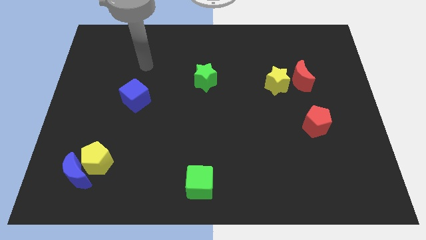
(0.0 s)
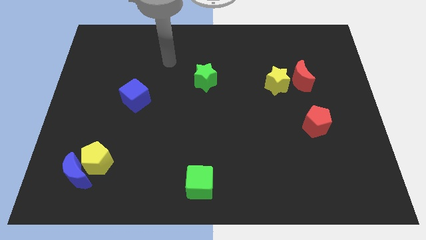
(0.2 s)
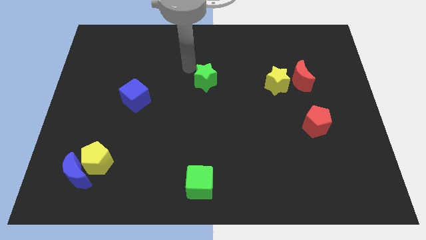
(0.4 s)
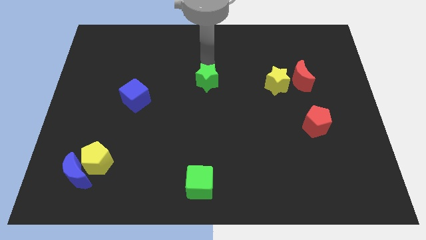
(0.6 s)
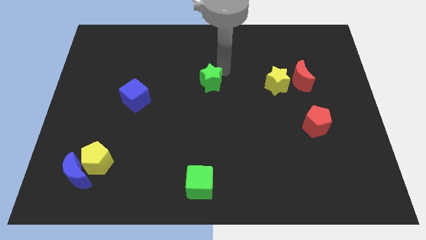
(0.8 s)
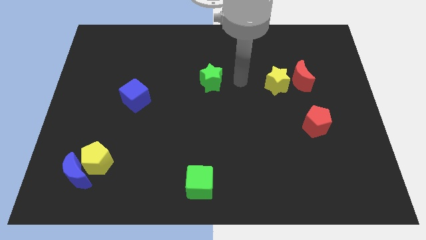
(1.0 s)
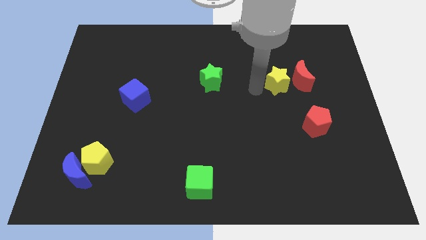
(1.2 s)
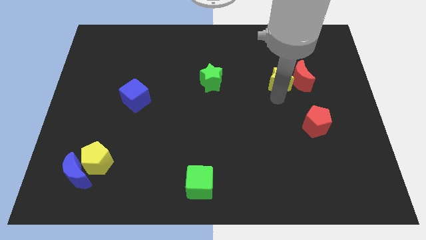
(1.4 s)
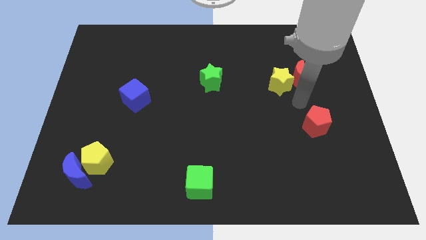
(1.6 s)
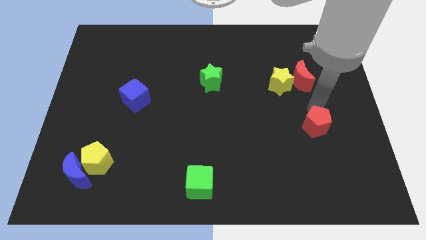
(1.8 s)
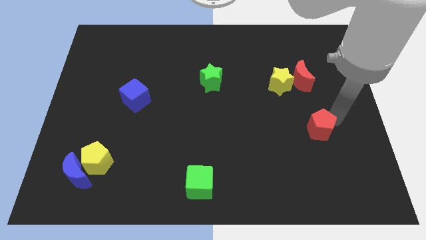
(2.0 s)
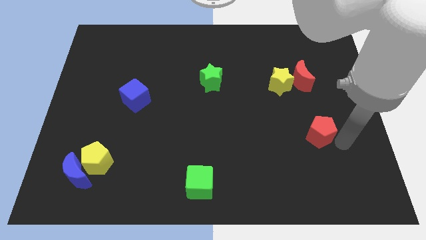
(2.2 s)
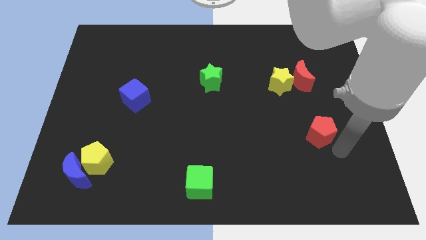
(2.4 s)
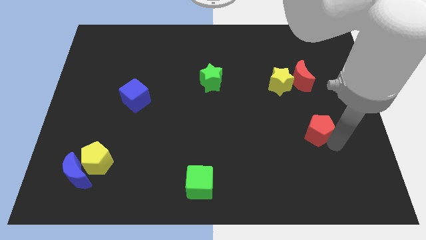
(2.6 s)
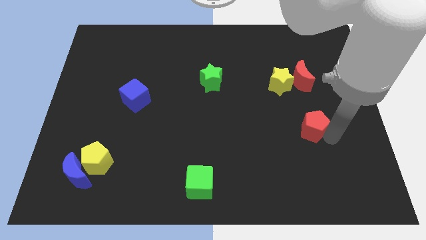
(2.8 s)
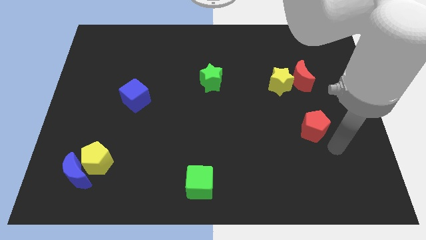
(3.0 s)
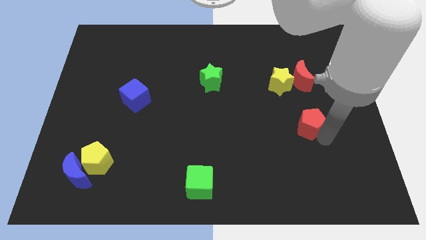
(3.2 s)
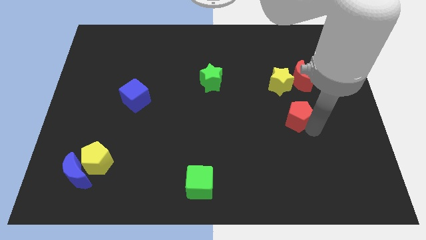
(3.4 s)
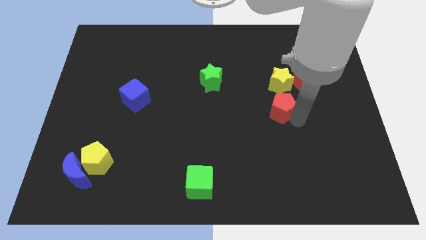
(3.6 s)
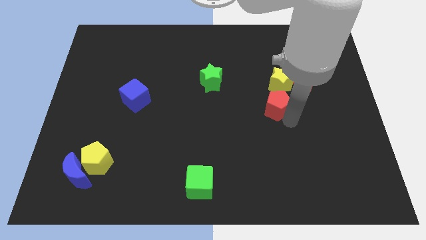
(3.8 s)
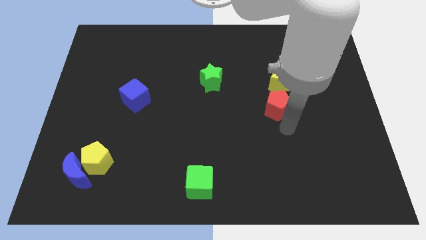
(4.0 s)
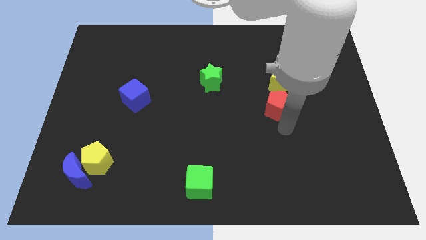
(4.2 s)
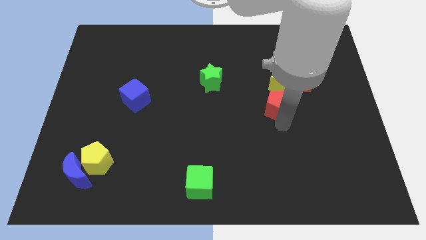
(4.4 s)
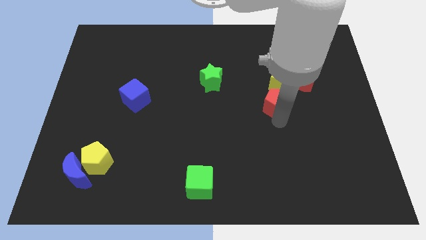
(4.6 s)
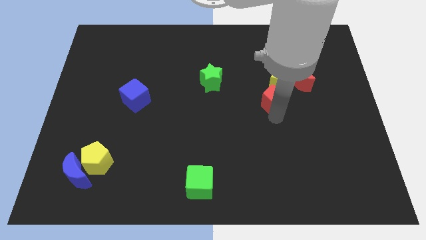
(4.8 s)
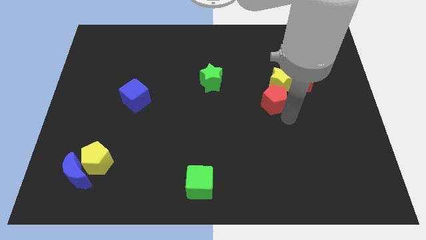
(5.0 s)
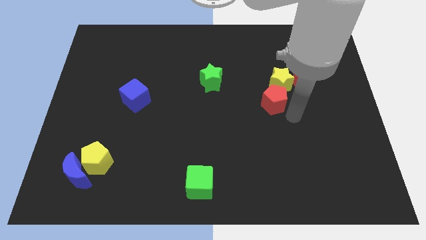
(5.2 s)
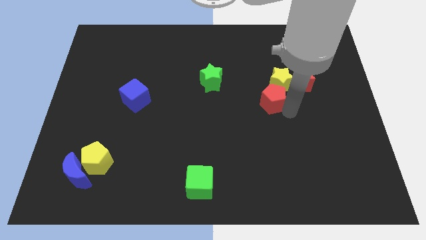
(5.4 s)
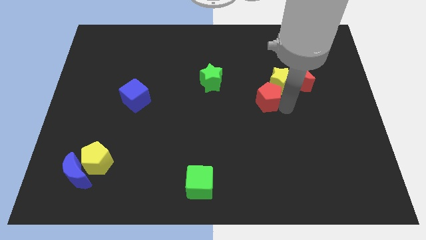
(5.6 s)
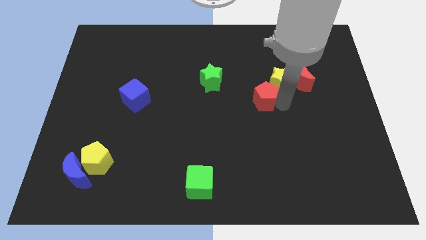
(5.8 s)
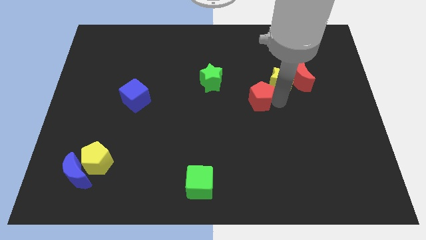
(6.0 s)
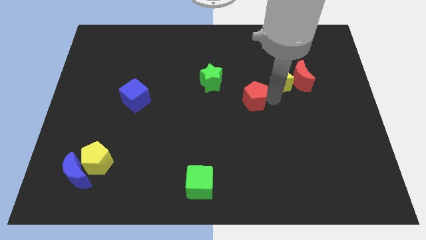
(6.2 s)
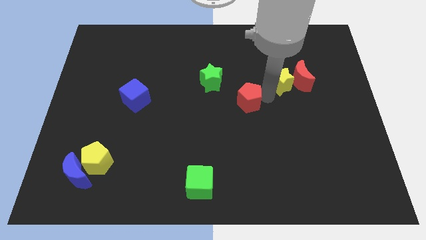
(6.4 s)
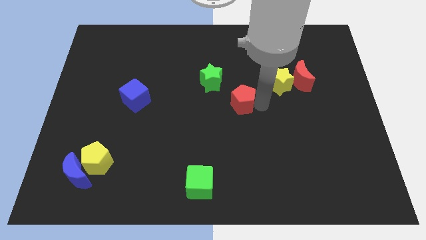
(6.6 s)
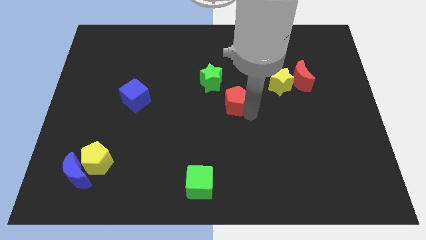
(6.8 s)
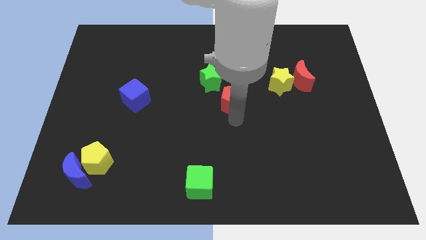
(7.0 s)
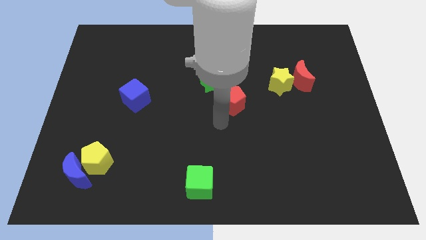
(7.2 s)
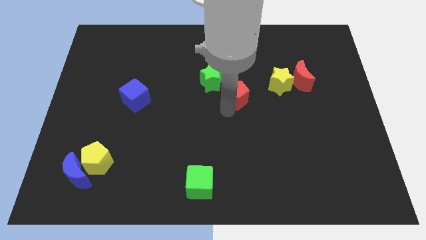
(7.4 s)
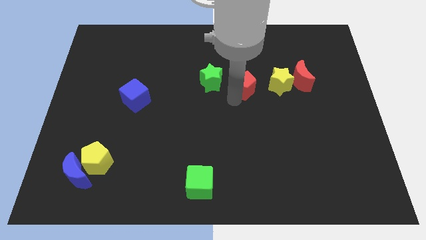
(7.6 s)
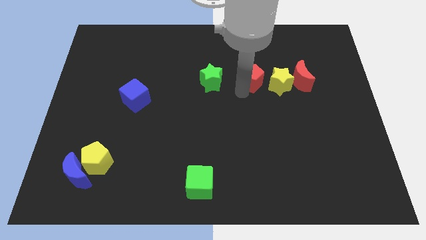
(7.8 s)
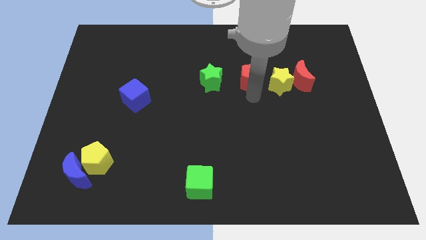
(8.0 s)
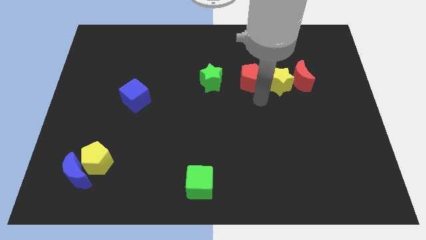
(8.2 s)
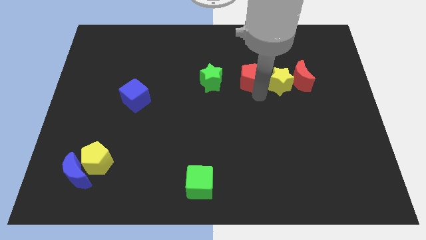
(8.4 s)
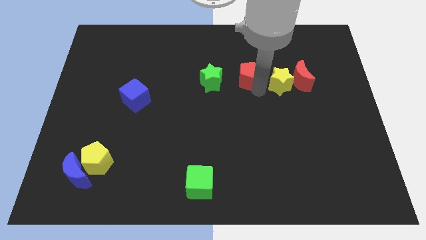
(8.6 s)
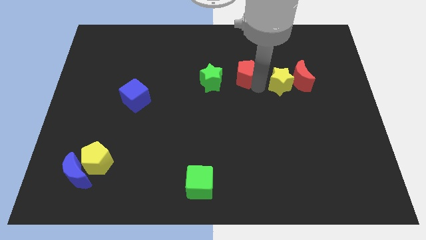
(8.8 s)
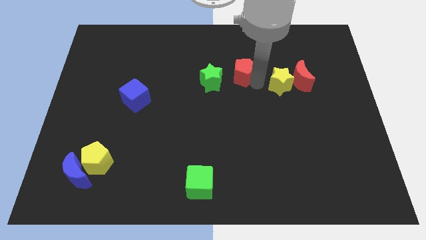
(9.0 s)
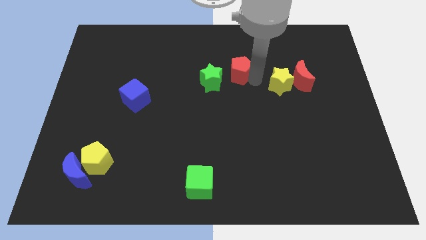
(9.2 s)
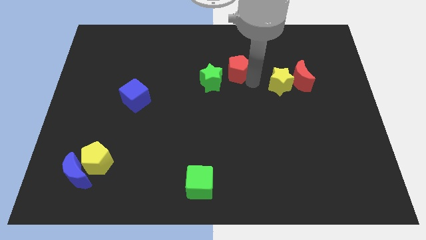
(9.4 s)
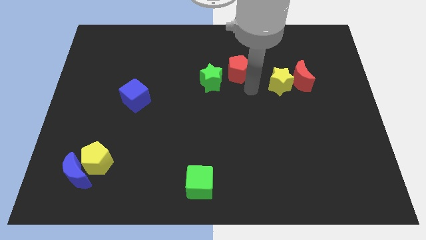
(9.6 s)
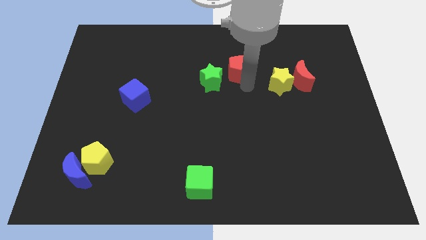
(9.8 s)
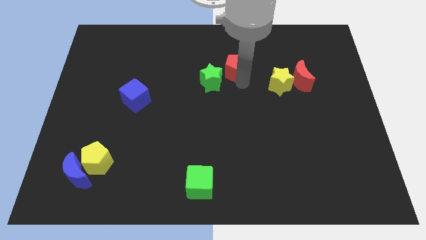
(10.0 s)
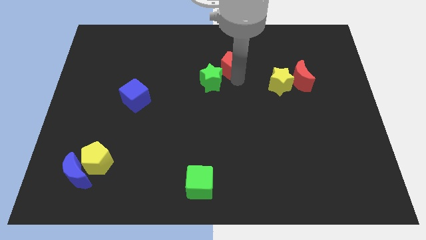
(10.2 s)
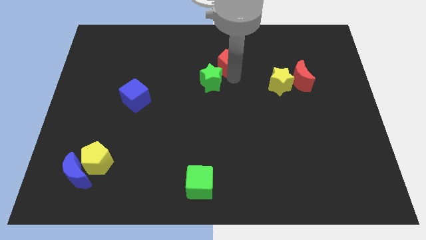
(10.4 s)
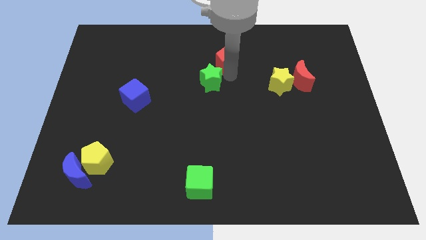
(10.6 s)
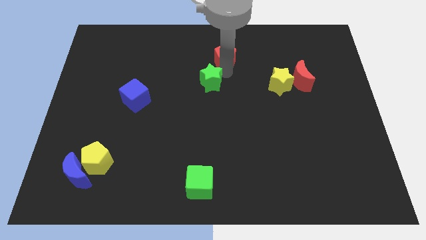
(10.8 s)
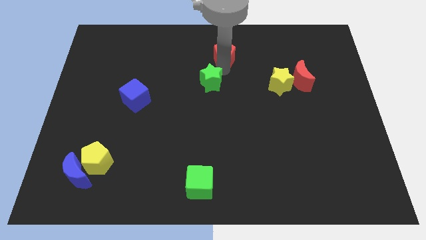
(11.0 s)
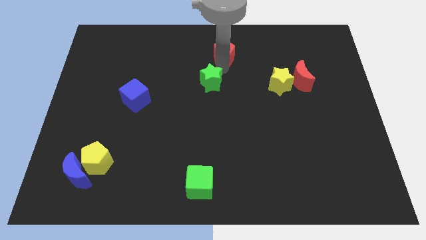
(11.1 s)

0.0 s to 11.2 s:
push the red pentagon to the towards your base
